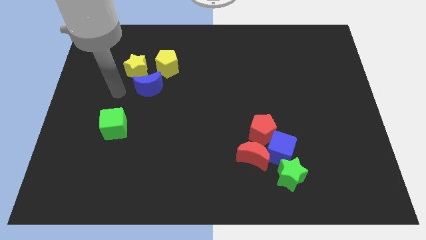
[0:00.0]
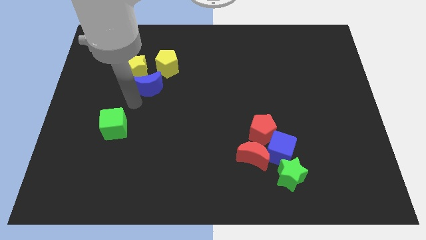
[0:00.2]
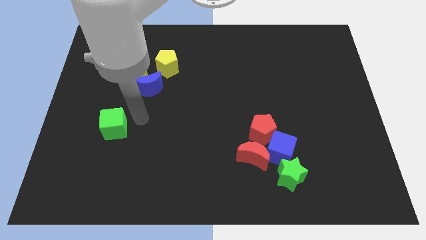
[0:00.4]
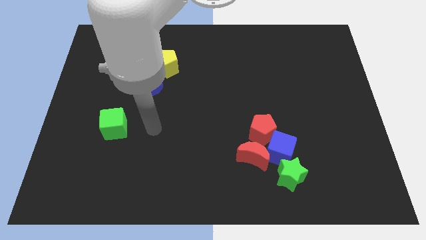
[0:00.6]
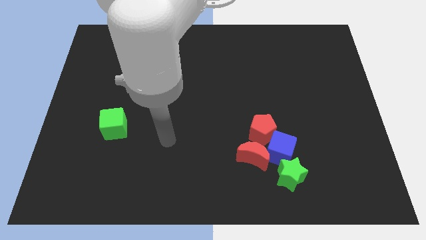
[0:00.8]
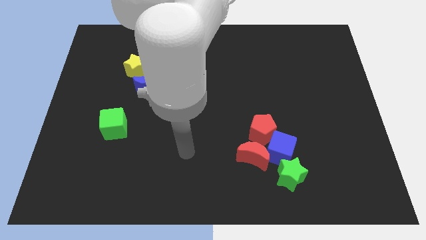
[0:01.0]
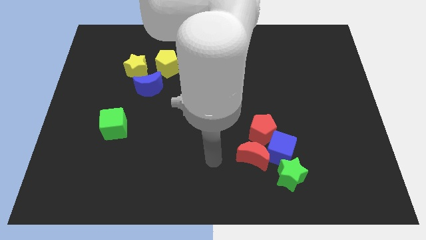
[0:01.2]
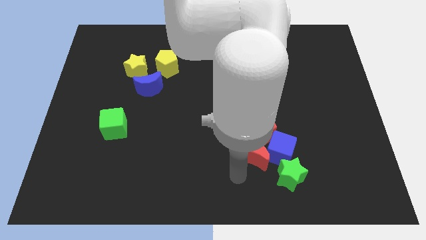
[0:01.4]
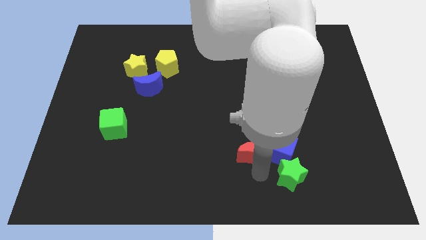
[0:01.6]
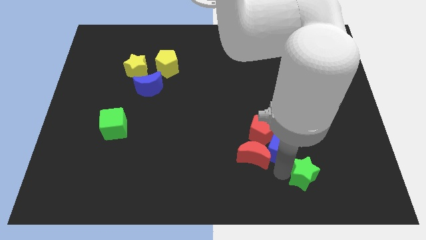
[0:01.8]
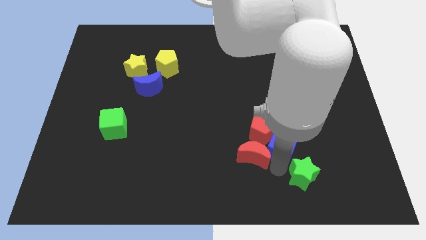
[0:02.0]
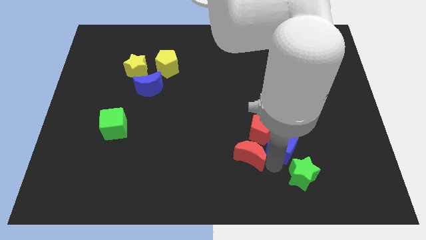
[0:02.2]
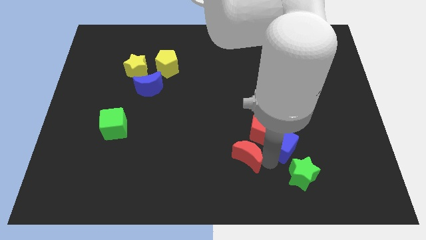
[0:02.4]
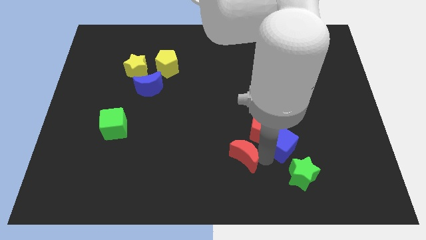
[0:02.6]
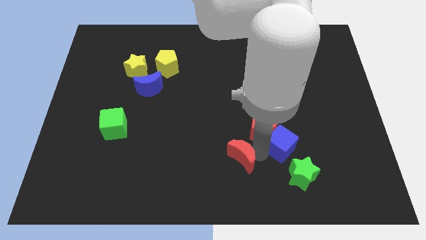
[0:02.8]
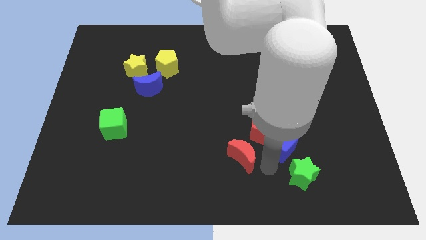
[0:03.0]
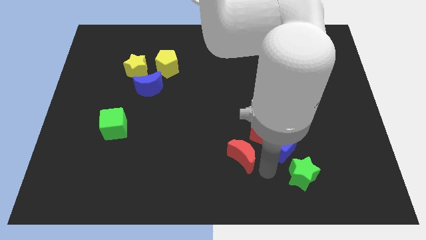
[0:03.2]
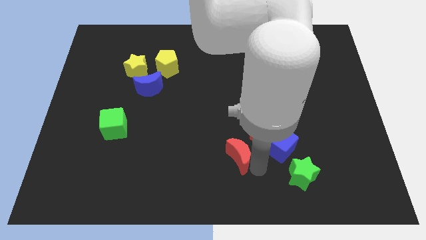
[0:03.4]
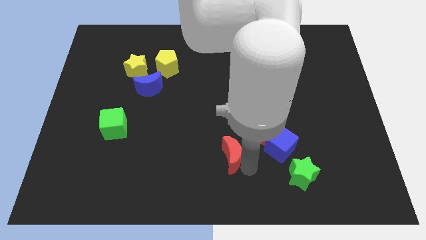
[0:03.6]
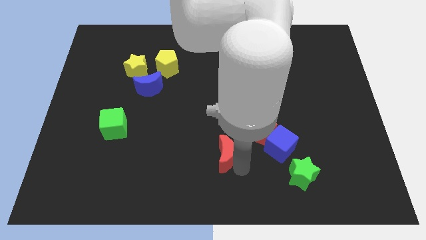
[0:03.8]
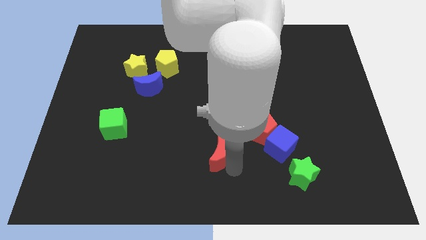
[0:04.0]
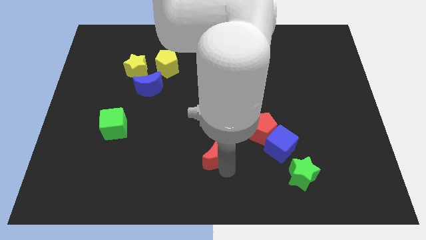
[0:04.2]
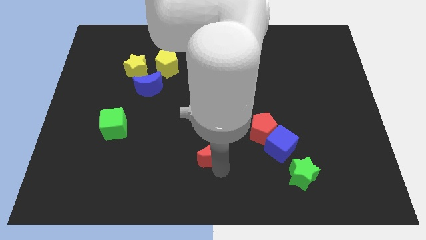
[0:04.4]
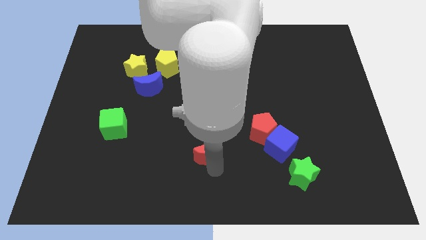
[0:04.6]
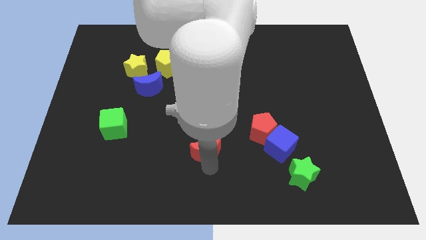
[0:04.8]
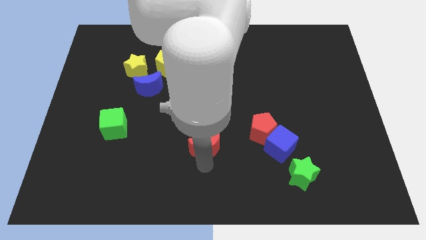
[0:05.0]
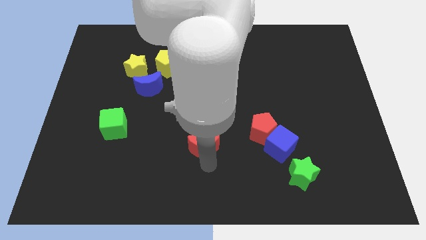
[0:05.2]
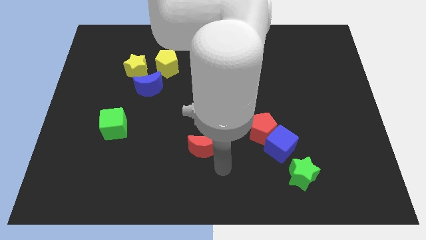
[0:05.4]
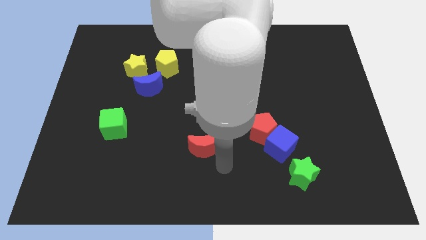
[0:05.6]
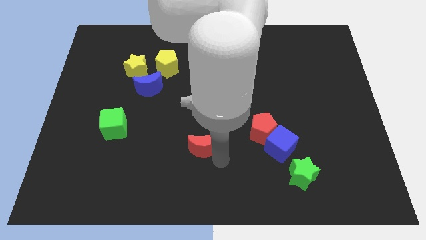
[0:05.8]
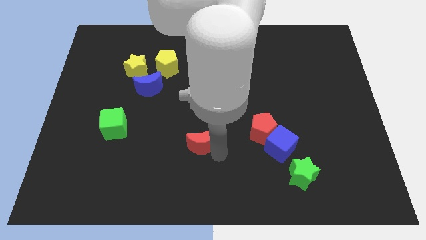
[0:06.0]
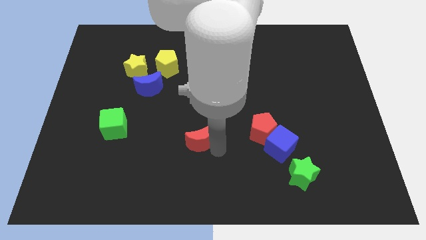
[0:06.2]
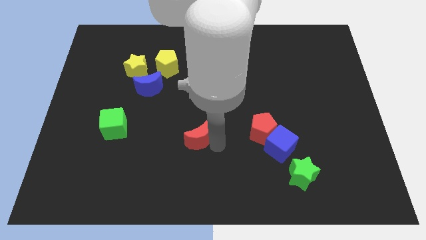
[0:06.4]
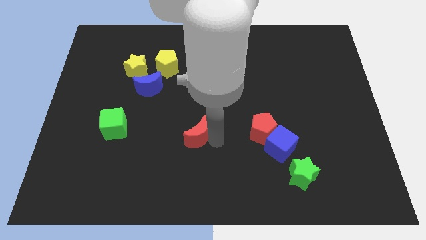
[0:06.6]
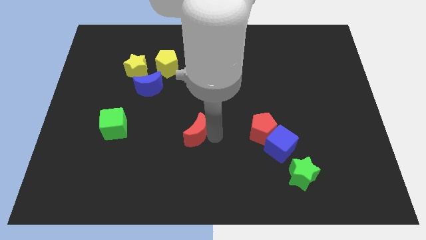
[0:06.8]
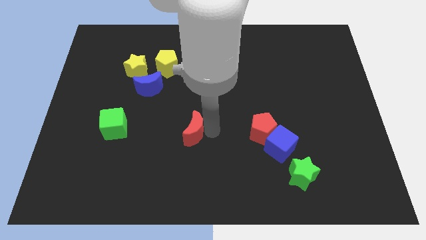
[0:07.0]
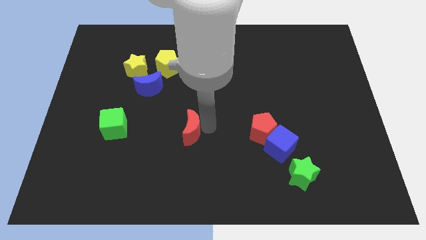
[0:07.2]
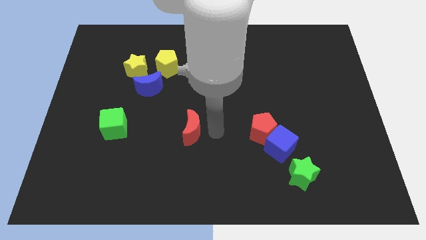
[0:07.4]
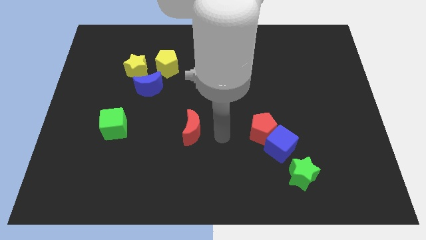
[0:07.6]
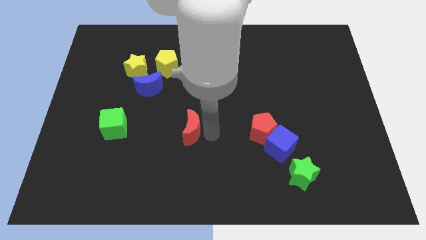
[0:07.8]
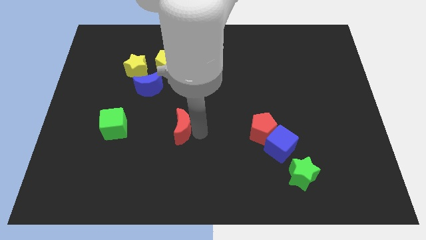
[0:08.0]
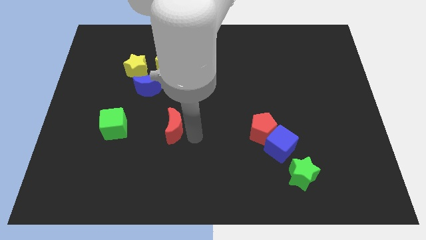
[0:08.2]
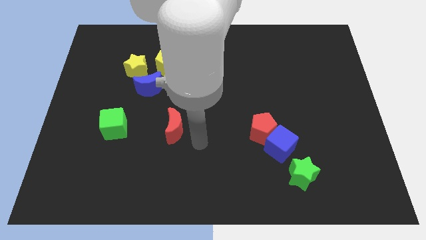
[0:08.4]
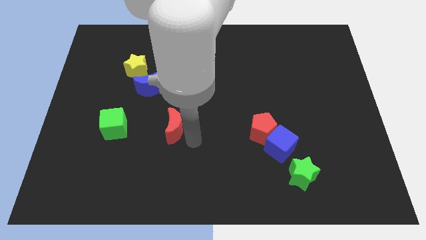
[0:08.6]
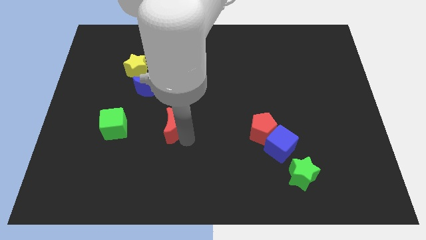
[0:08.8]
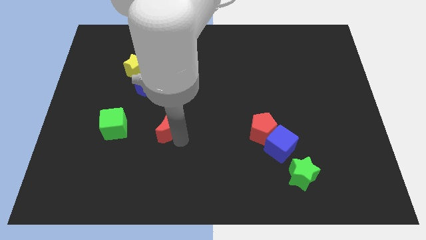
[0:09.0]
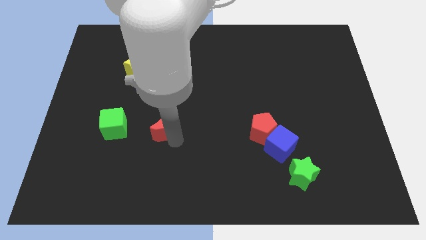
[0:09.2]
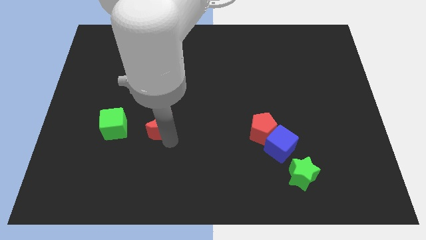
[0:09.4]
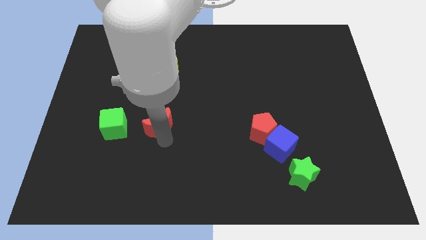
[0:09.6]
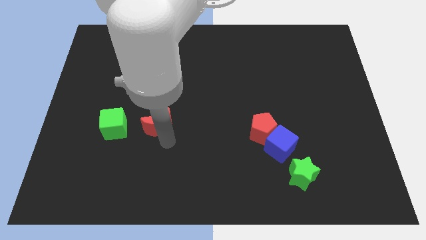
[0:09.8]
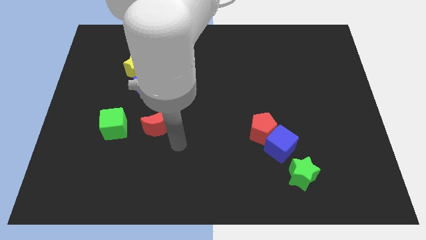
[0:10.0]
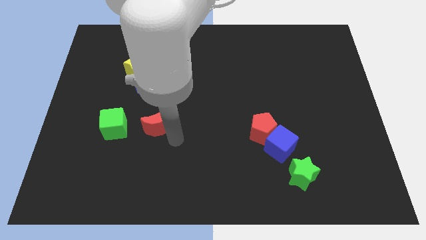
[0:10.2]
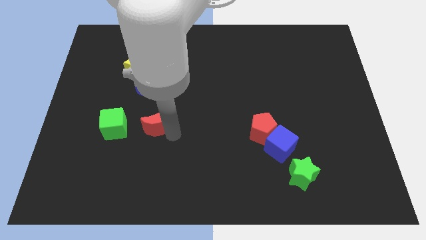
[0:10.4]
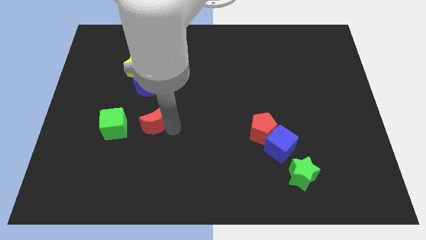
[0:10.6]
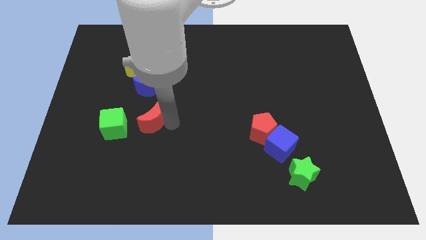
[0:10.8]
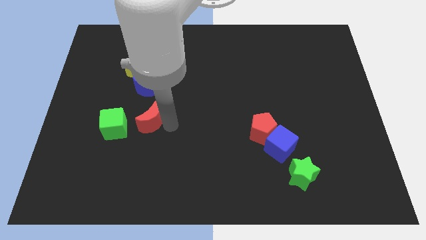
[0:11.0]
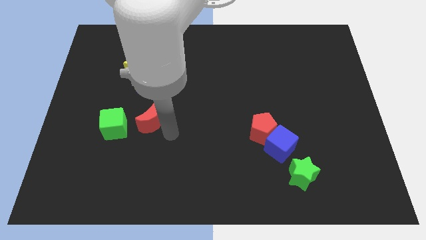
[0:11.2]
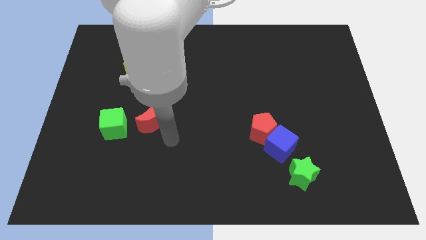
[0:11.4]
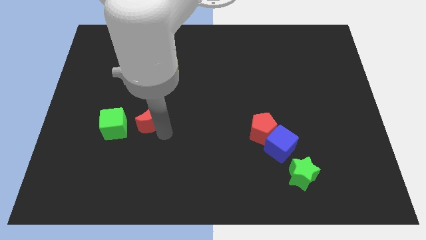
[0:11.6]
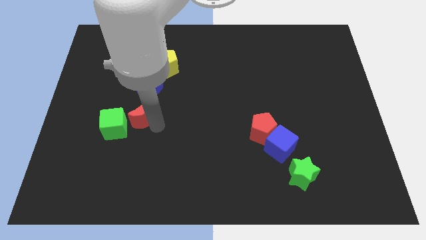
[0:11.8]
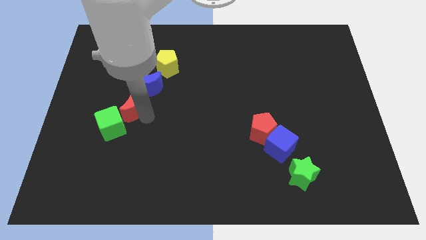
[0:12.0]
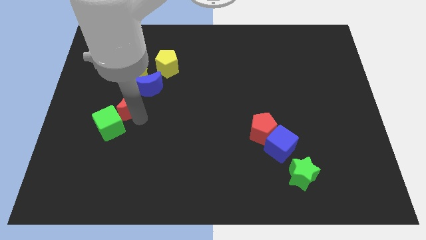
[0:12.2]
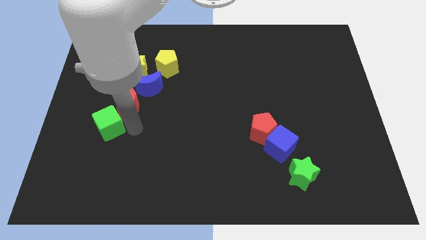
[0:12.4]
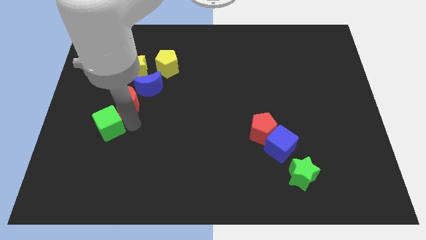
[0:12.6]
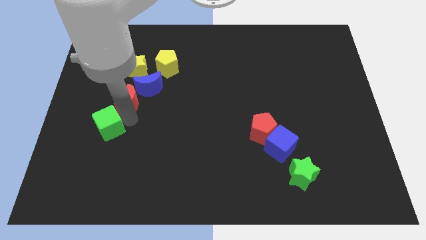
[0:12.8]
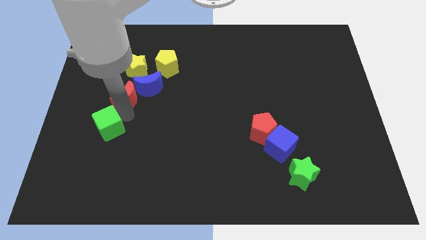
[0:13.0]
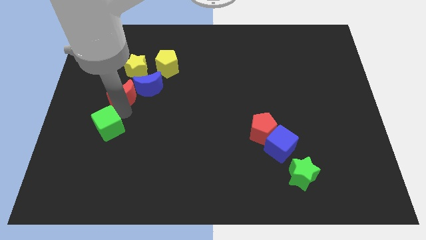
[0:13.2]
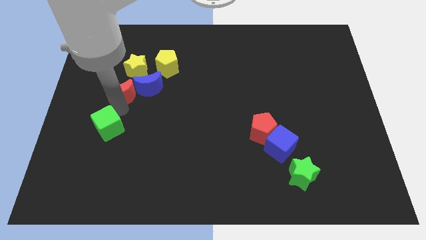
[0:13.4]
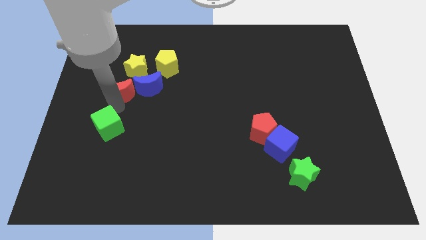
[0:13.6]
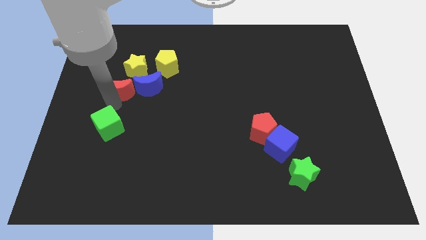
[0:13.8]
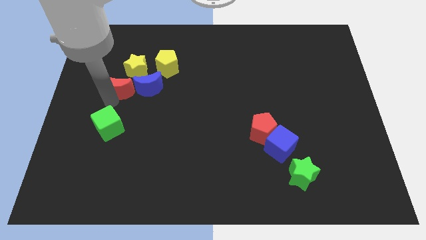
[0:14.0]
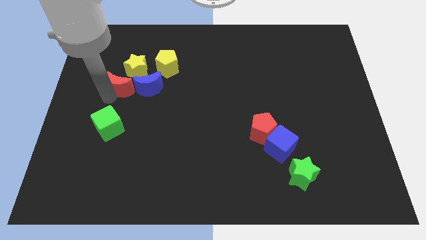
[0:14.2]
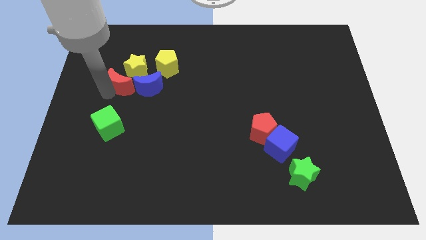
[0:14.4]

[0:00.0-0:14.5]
move the red moon close to the yellow star

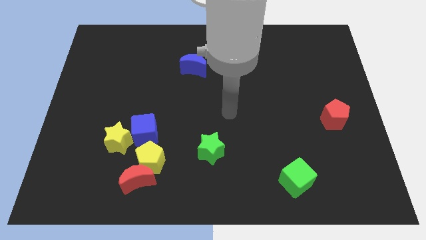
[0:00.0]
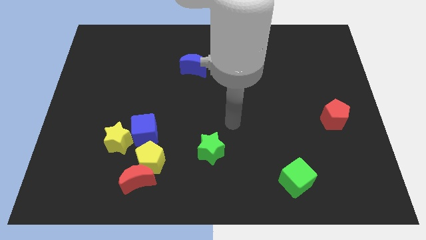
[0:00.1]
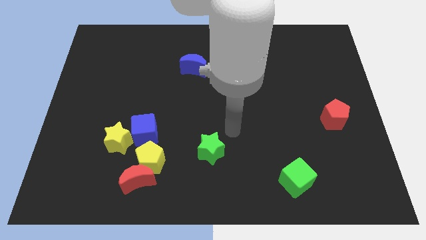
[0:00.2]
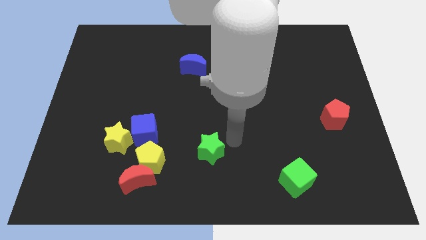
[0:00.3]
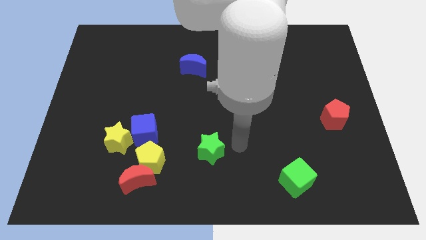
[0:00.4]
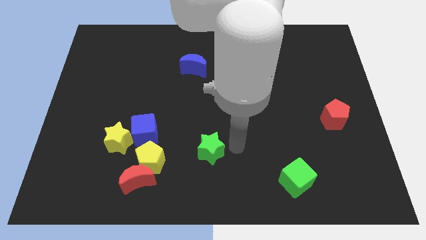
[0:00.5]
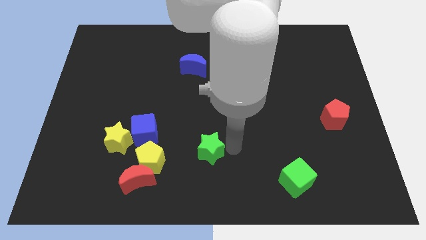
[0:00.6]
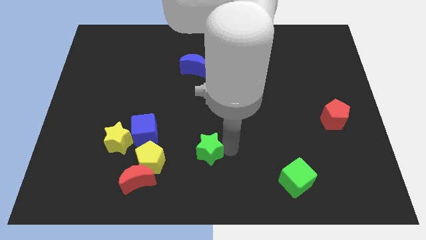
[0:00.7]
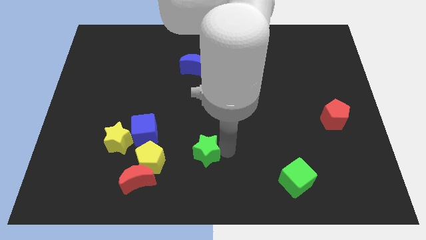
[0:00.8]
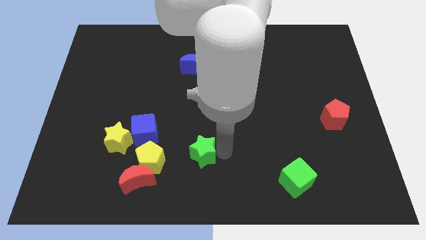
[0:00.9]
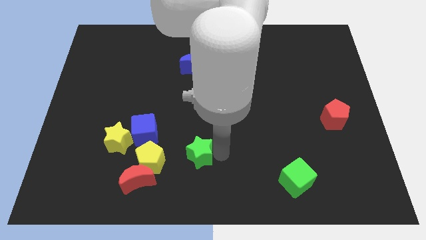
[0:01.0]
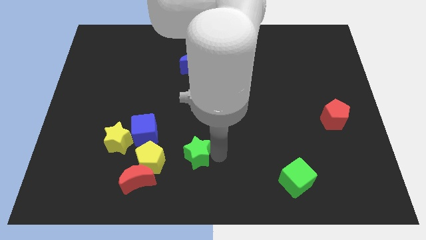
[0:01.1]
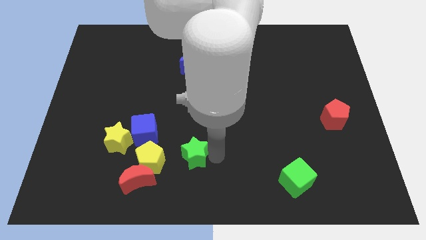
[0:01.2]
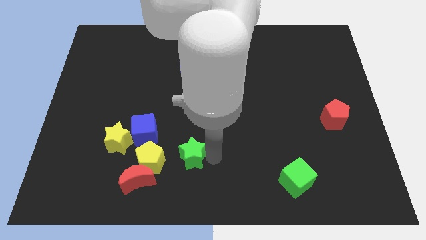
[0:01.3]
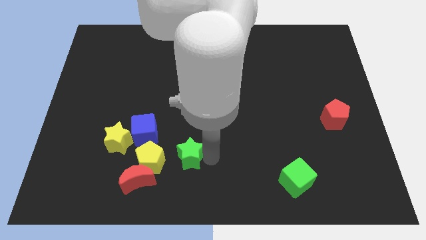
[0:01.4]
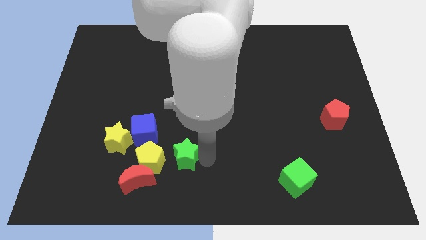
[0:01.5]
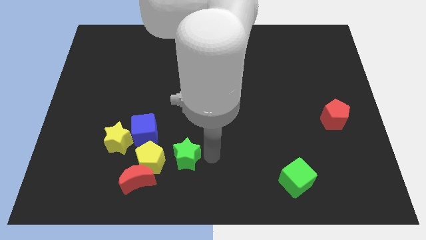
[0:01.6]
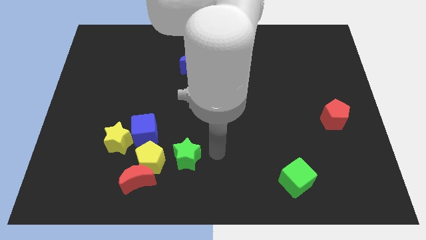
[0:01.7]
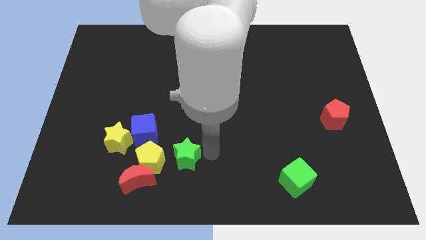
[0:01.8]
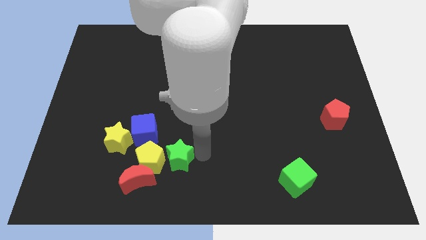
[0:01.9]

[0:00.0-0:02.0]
slide the green star next to the yellow pentagon
